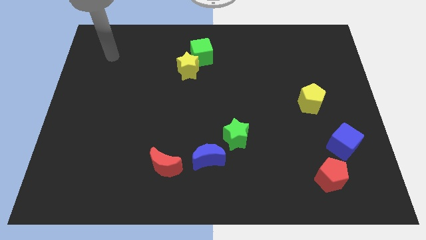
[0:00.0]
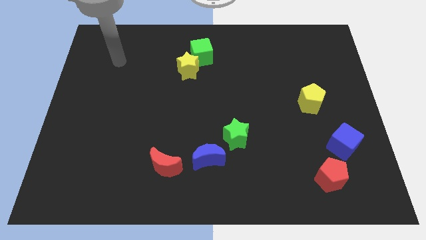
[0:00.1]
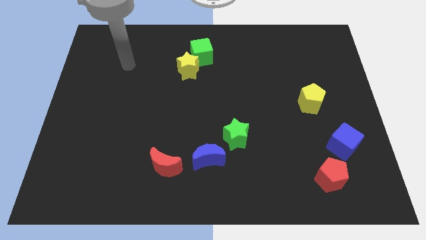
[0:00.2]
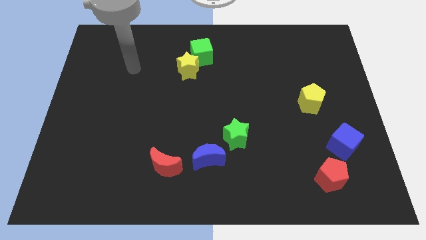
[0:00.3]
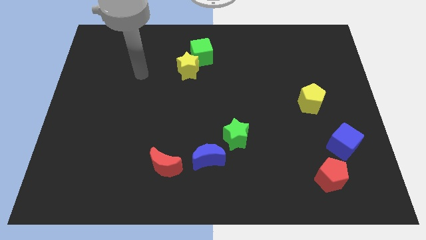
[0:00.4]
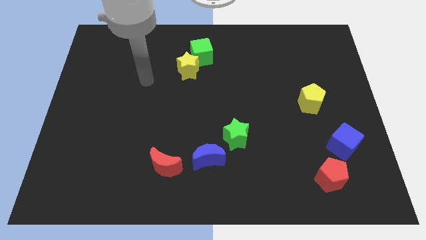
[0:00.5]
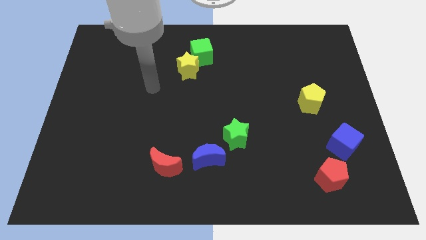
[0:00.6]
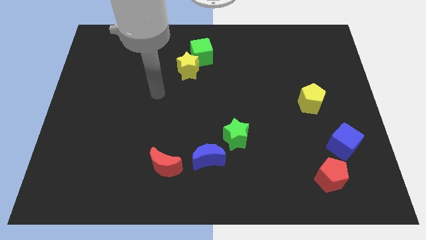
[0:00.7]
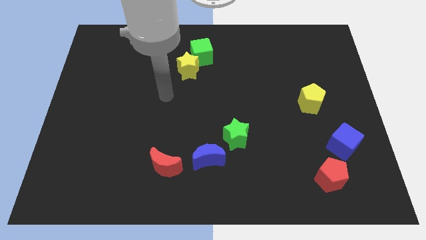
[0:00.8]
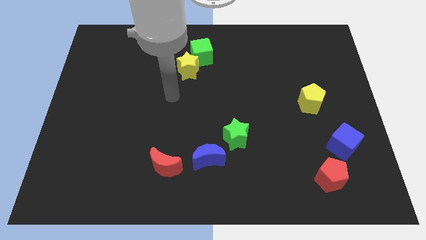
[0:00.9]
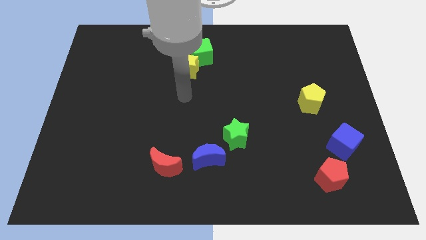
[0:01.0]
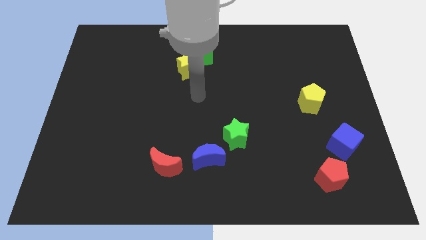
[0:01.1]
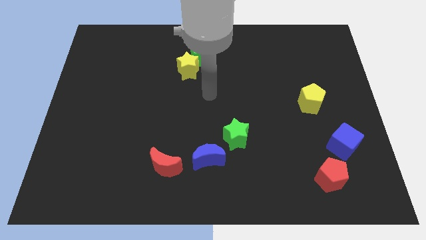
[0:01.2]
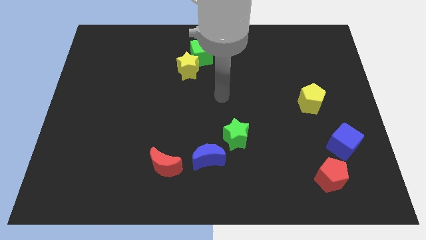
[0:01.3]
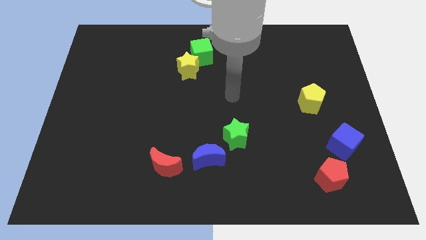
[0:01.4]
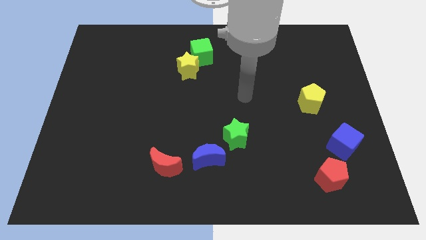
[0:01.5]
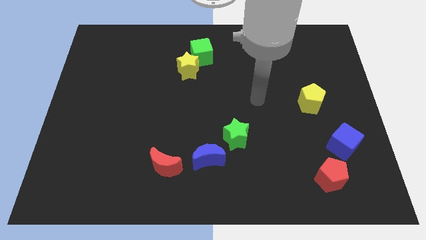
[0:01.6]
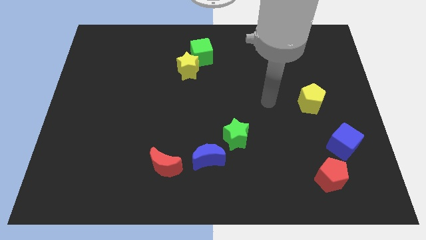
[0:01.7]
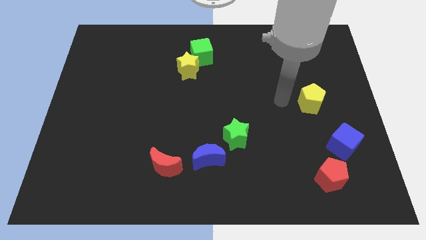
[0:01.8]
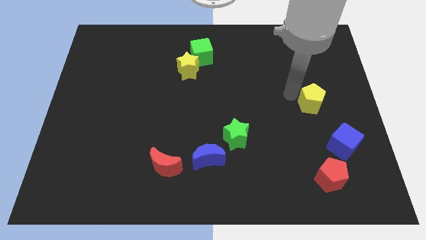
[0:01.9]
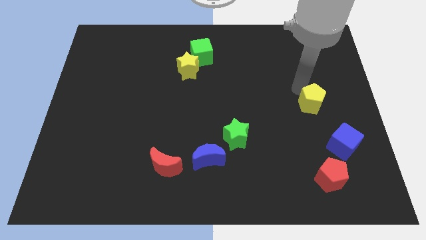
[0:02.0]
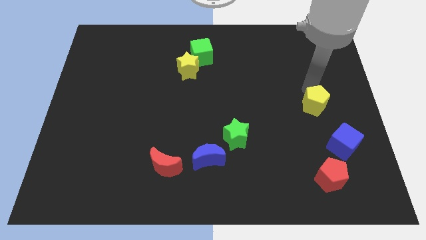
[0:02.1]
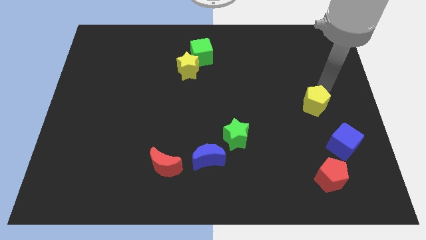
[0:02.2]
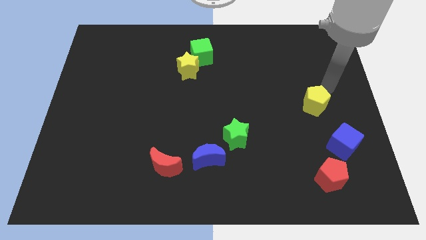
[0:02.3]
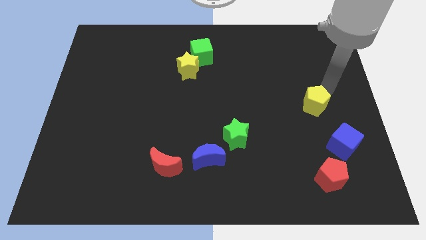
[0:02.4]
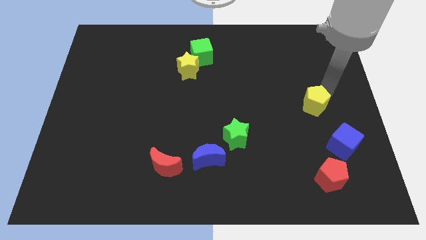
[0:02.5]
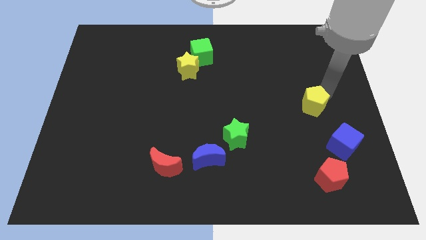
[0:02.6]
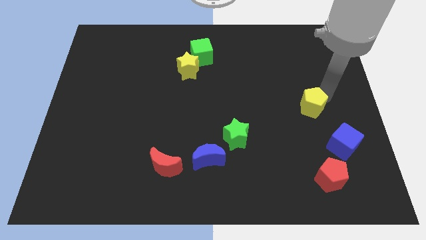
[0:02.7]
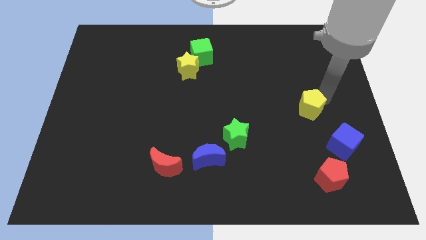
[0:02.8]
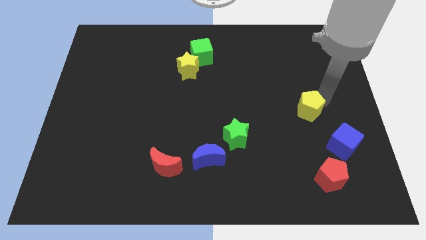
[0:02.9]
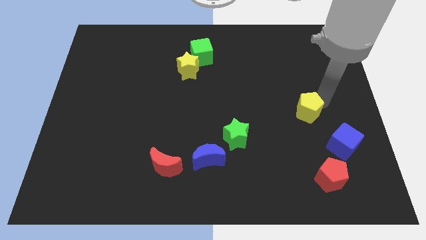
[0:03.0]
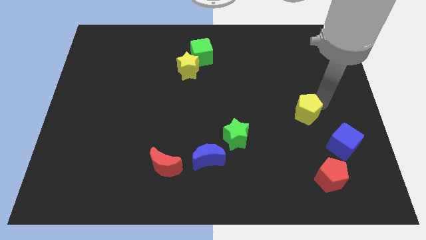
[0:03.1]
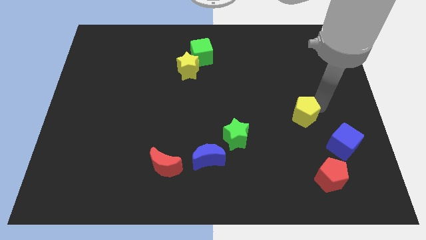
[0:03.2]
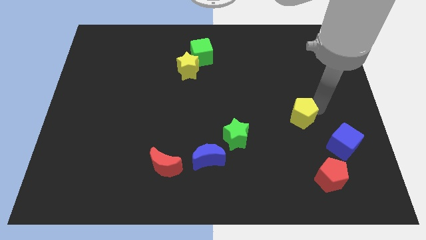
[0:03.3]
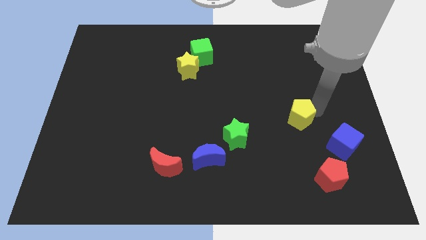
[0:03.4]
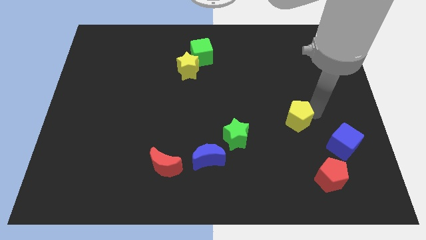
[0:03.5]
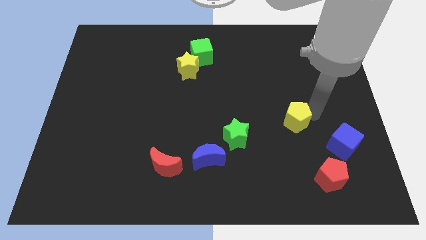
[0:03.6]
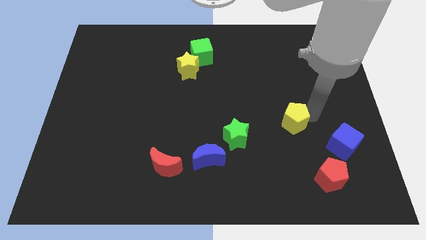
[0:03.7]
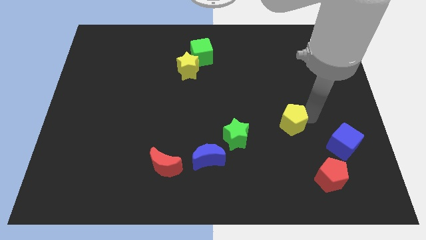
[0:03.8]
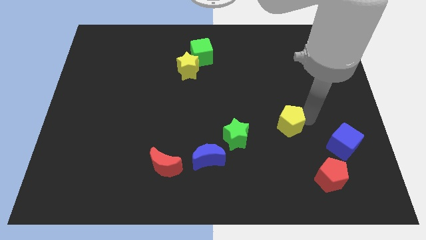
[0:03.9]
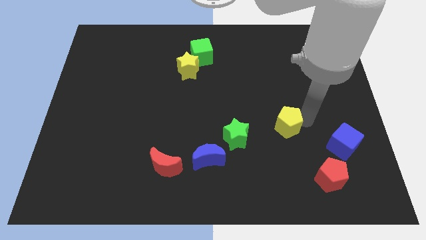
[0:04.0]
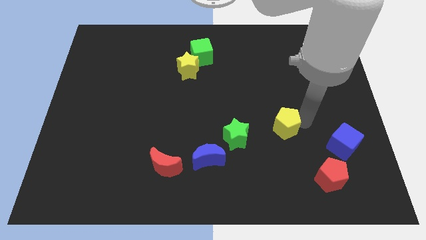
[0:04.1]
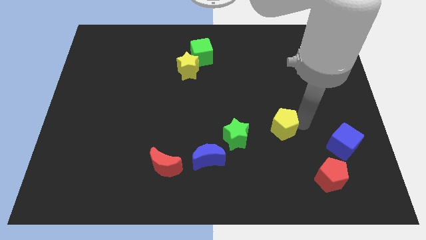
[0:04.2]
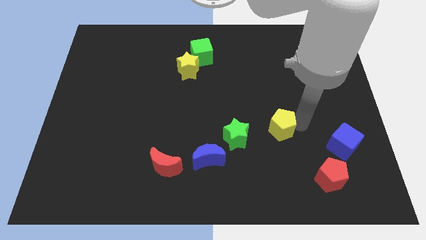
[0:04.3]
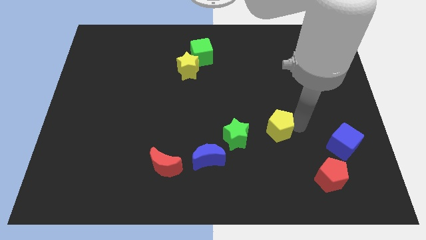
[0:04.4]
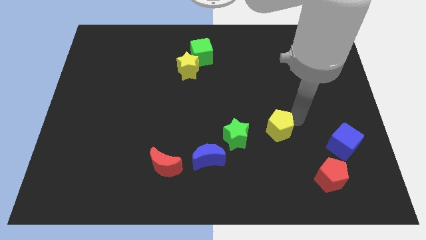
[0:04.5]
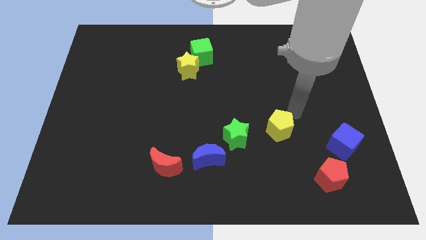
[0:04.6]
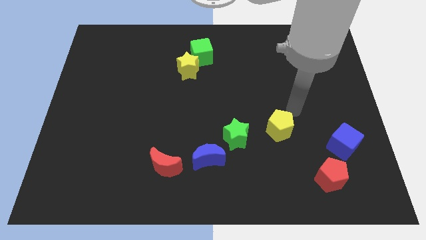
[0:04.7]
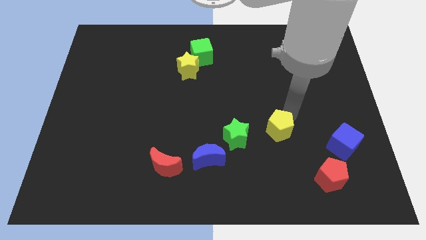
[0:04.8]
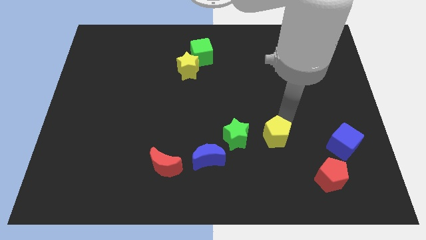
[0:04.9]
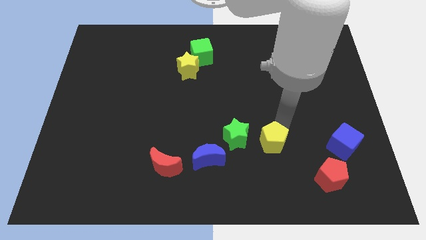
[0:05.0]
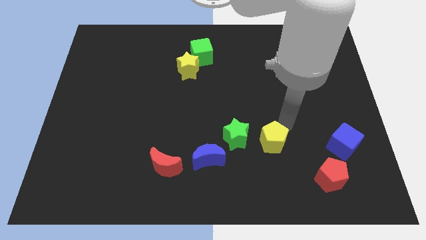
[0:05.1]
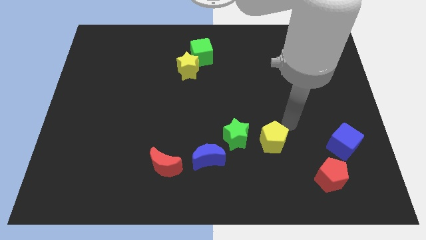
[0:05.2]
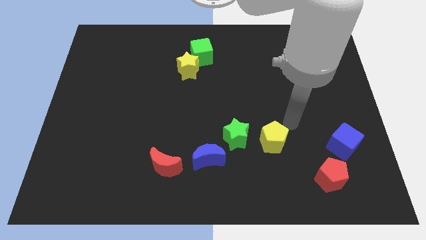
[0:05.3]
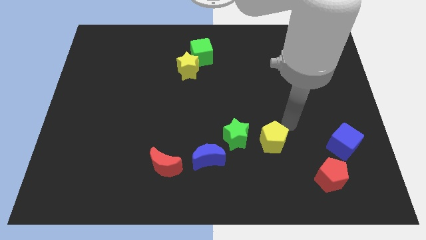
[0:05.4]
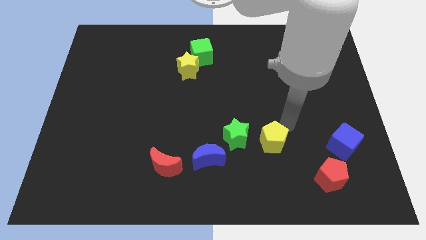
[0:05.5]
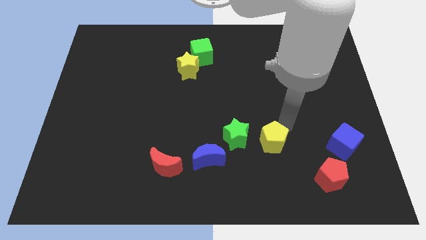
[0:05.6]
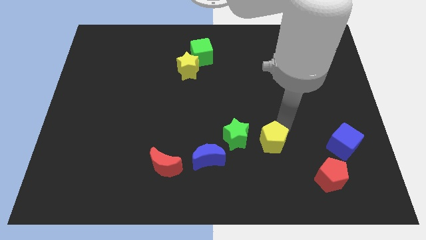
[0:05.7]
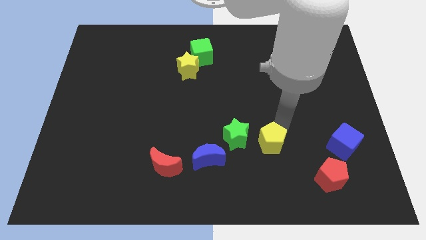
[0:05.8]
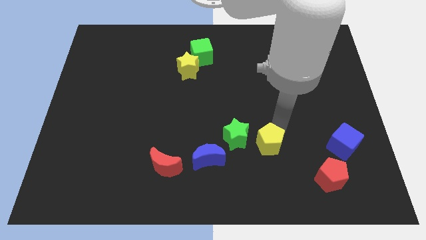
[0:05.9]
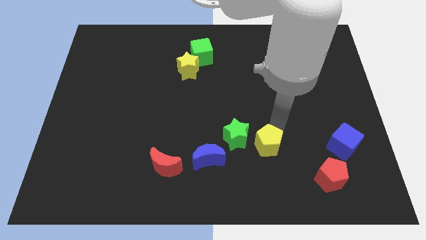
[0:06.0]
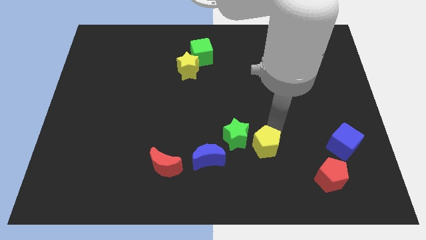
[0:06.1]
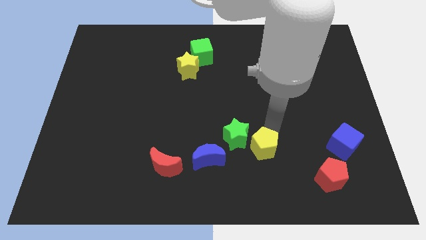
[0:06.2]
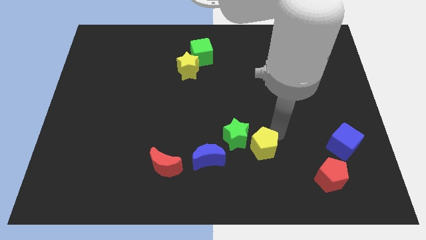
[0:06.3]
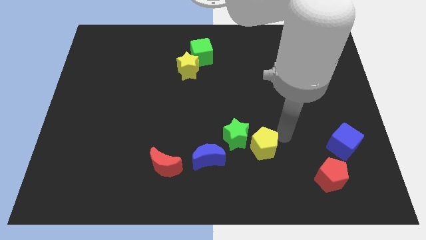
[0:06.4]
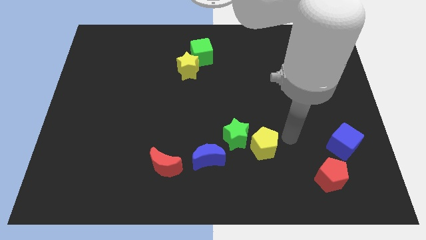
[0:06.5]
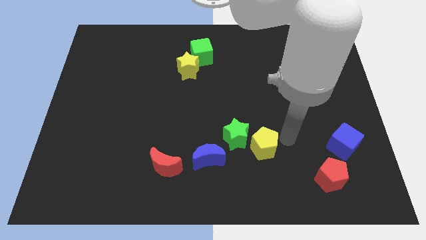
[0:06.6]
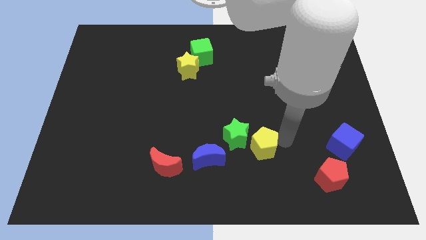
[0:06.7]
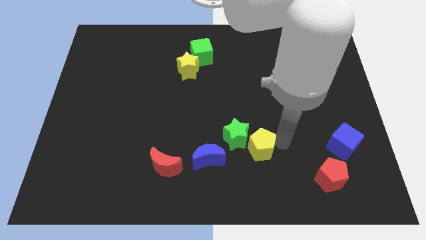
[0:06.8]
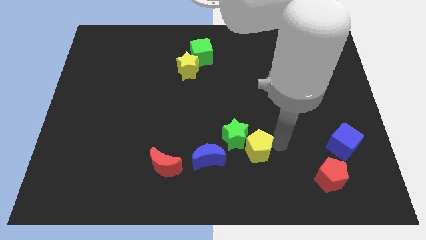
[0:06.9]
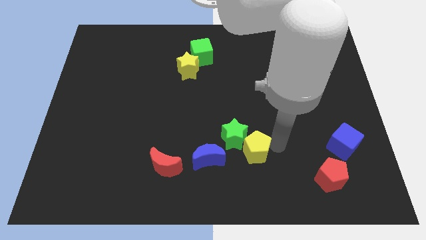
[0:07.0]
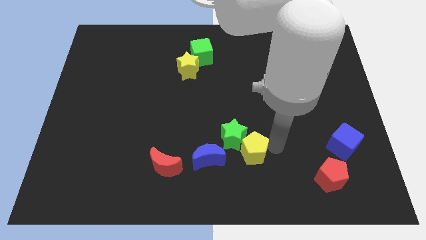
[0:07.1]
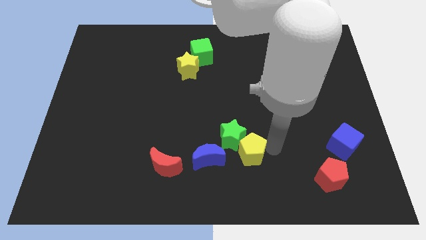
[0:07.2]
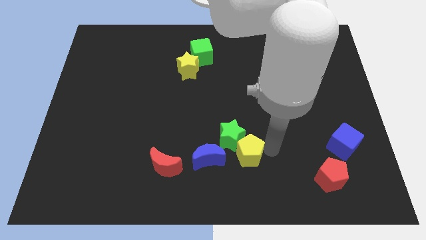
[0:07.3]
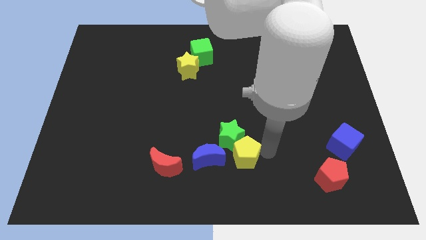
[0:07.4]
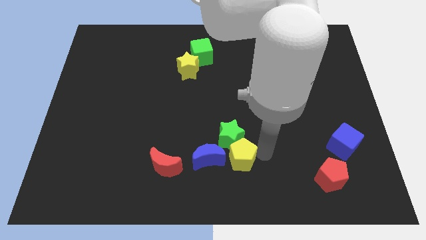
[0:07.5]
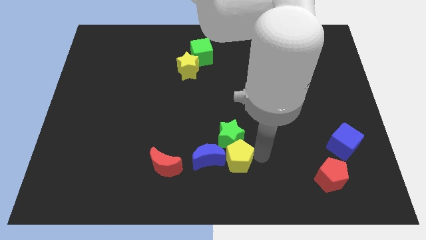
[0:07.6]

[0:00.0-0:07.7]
put the yellow pentagon next to the blue moon

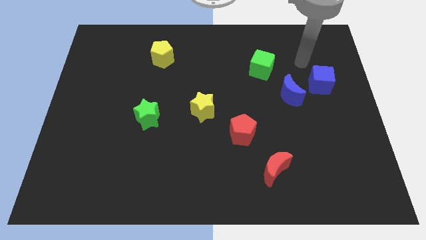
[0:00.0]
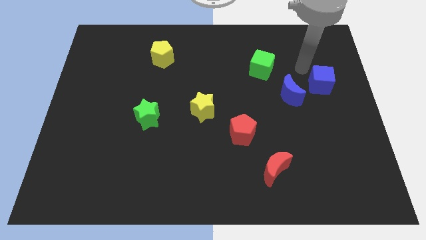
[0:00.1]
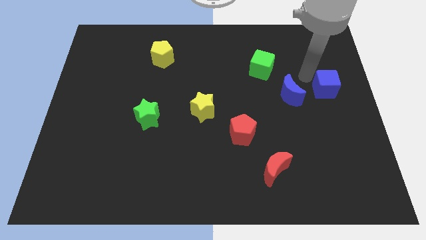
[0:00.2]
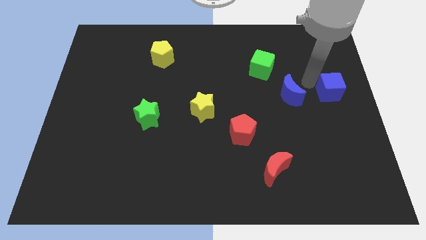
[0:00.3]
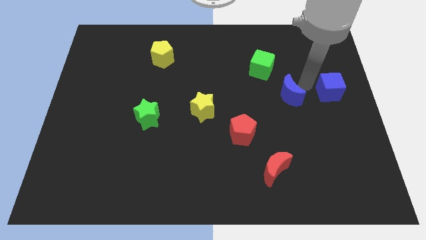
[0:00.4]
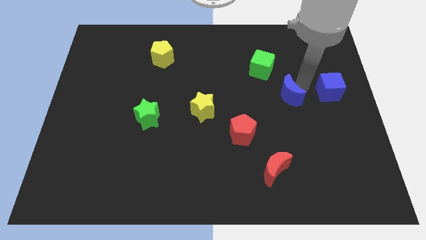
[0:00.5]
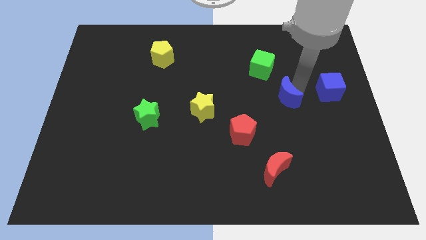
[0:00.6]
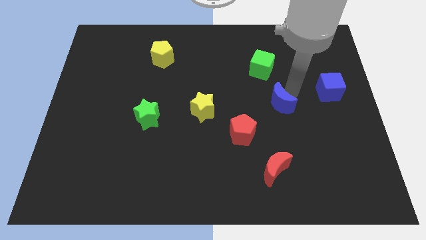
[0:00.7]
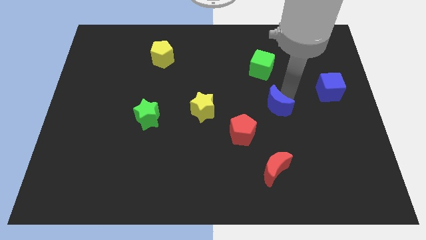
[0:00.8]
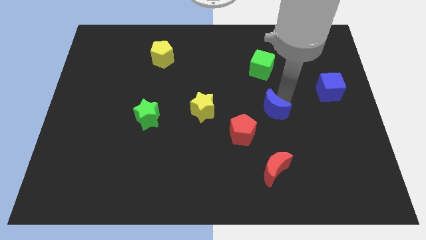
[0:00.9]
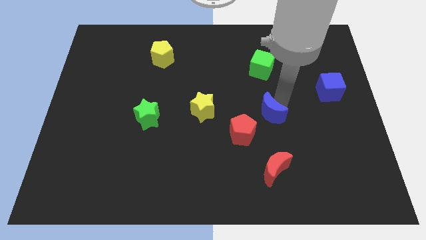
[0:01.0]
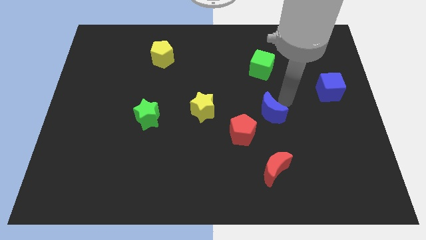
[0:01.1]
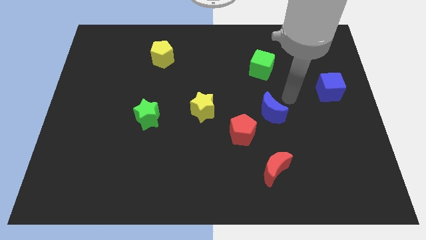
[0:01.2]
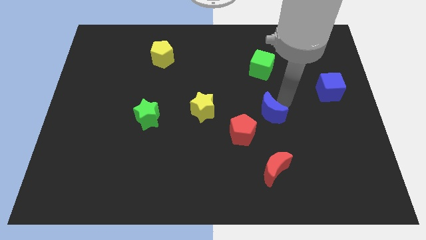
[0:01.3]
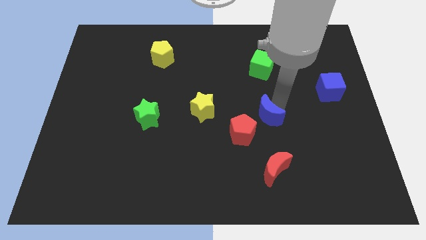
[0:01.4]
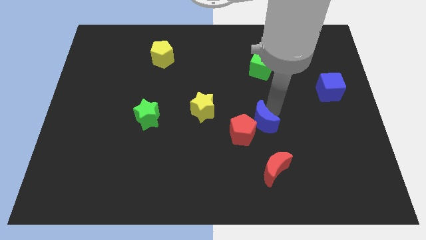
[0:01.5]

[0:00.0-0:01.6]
slide the blue moon to the red pentagon
